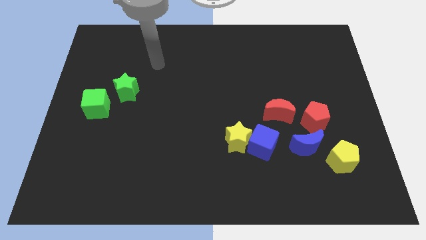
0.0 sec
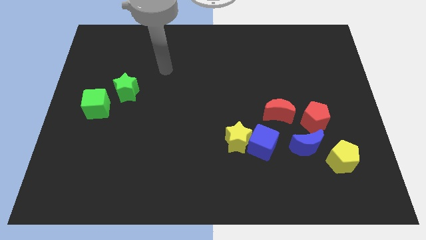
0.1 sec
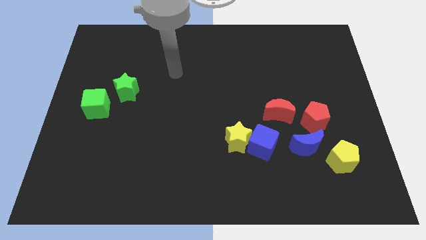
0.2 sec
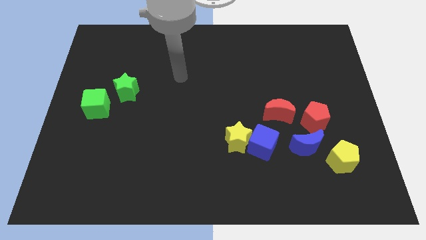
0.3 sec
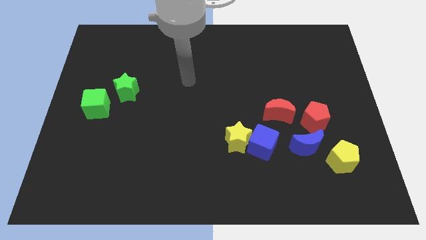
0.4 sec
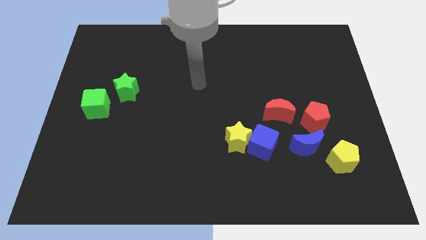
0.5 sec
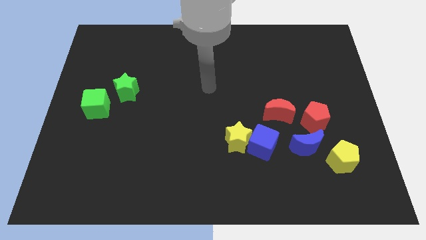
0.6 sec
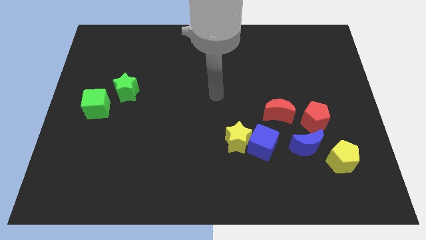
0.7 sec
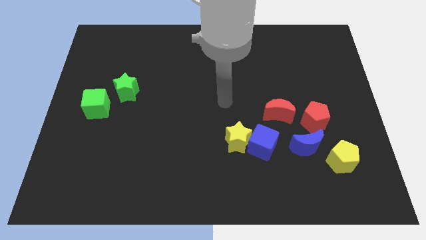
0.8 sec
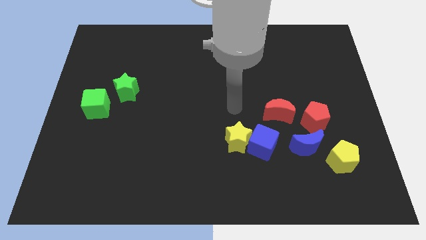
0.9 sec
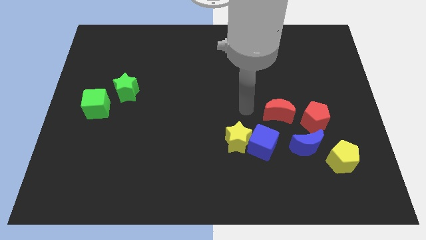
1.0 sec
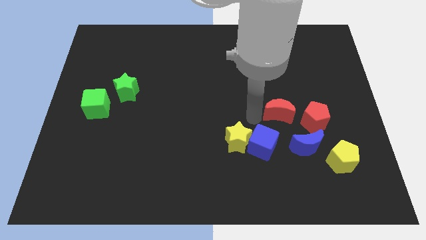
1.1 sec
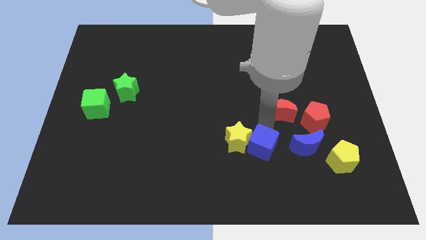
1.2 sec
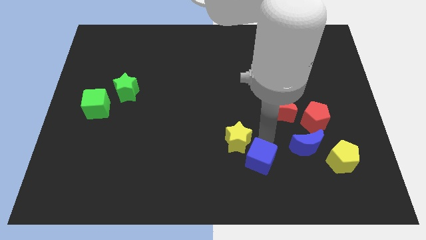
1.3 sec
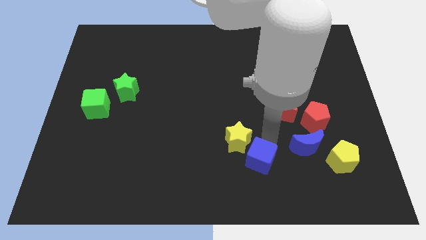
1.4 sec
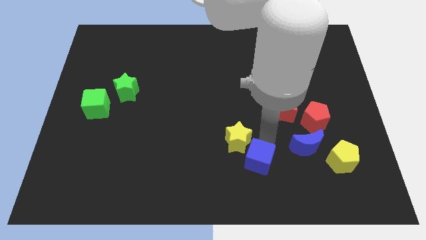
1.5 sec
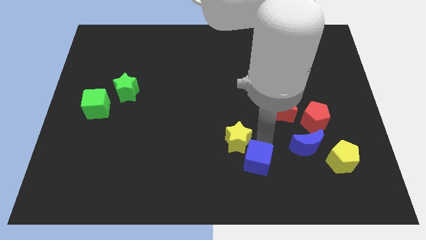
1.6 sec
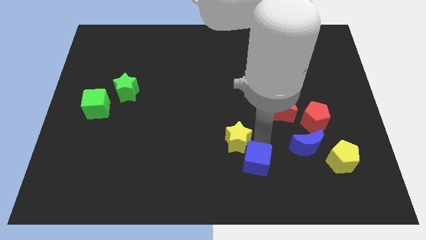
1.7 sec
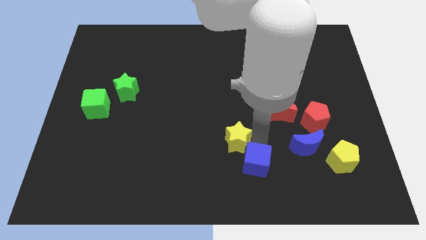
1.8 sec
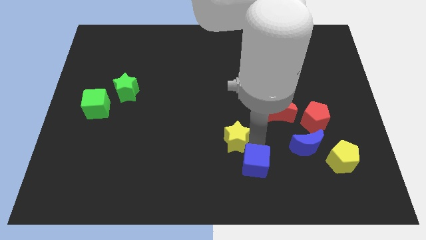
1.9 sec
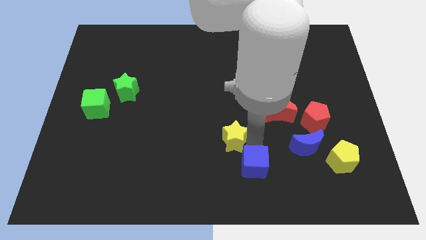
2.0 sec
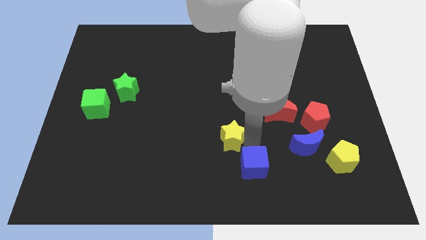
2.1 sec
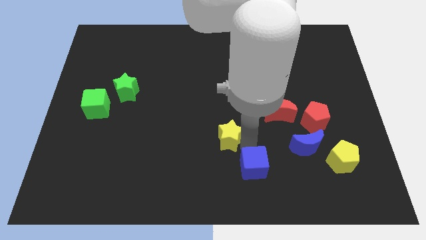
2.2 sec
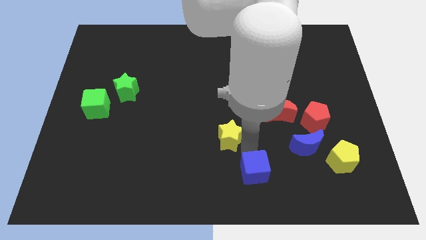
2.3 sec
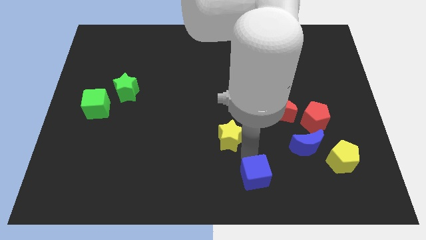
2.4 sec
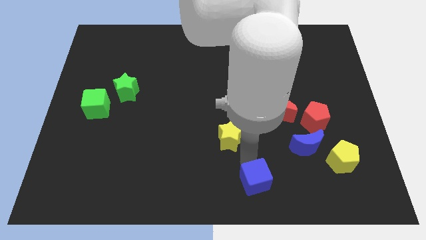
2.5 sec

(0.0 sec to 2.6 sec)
separate the yellow star from the blue cube

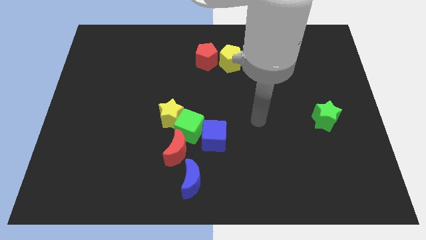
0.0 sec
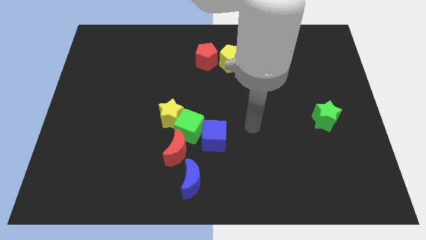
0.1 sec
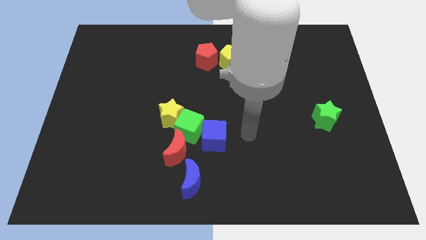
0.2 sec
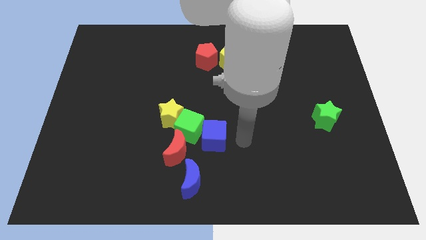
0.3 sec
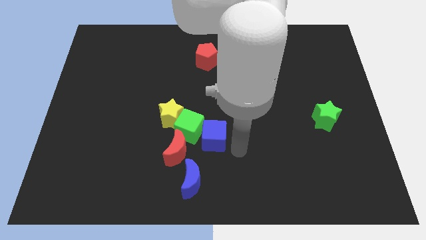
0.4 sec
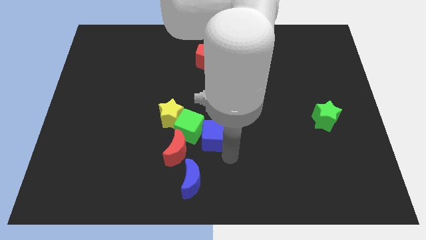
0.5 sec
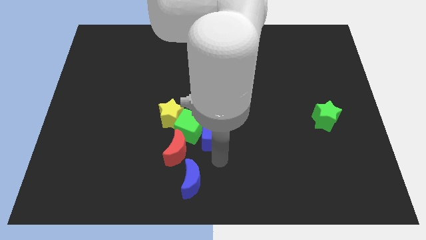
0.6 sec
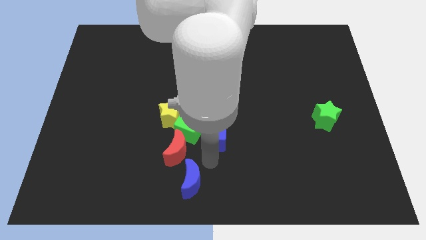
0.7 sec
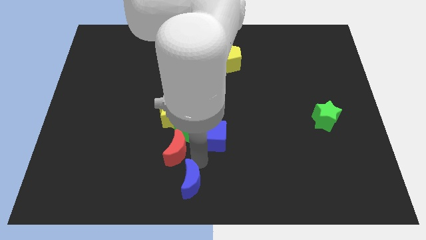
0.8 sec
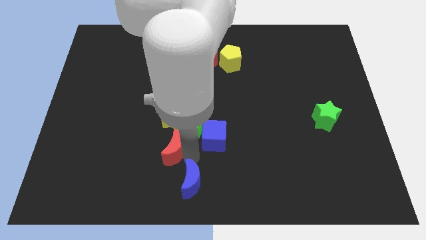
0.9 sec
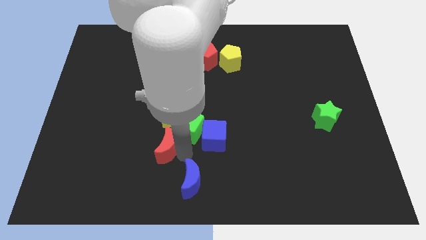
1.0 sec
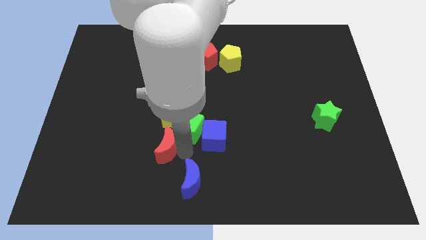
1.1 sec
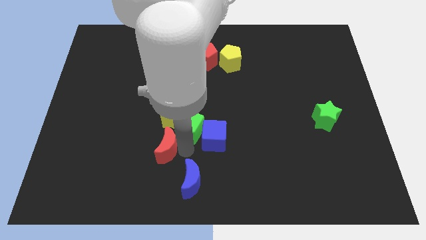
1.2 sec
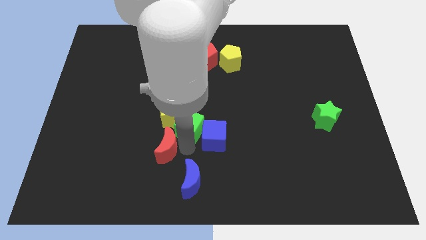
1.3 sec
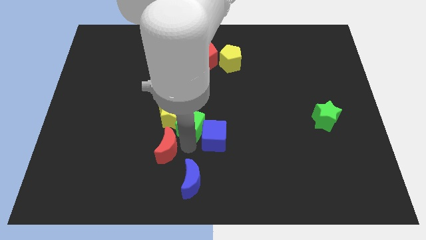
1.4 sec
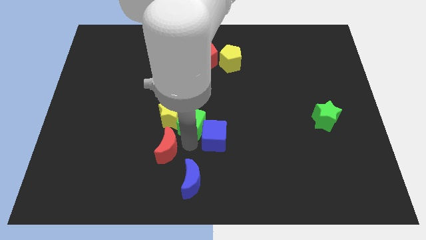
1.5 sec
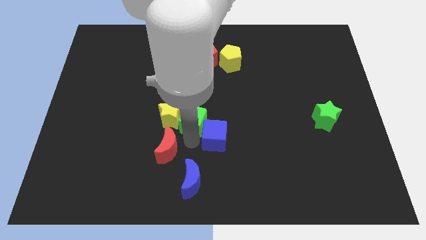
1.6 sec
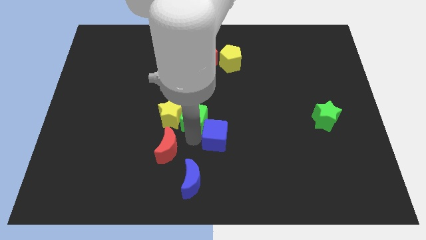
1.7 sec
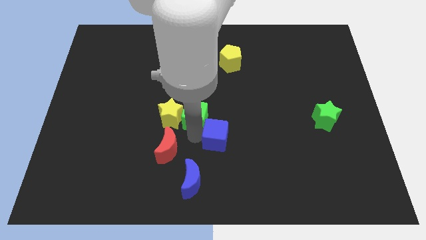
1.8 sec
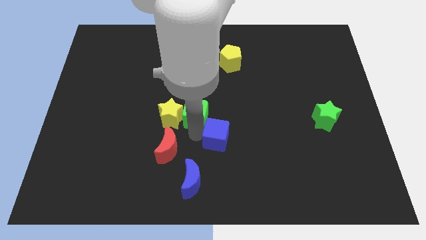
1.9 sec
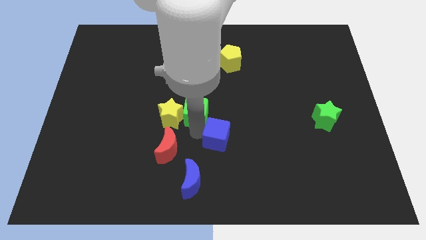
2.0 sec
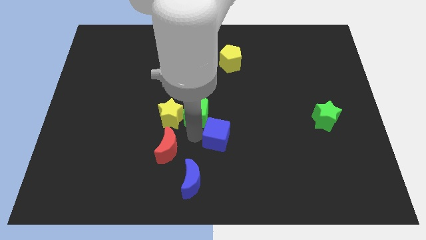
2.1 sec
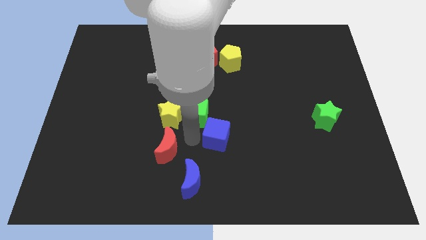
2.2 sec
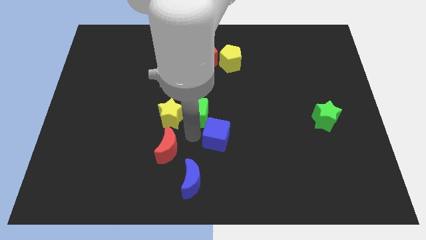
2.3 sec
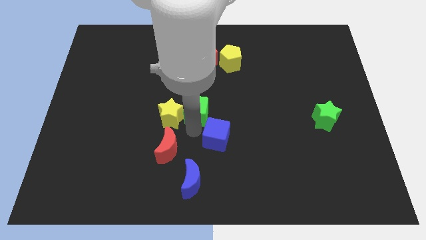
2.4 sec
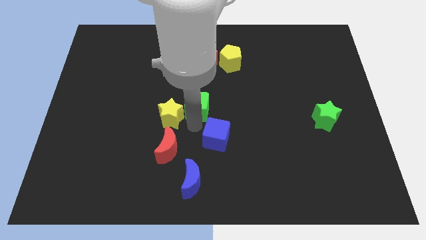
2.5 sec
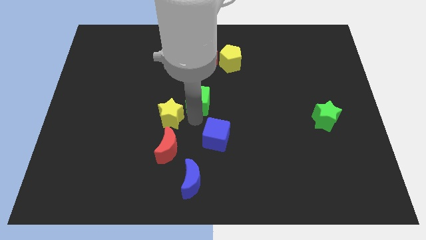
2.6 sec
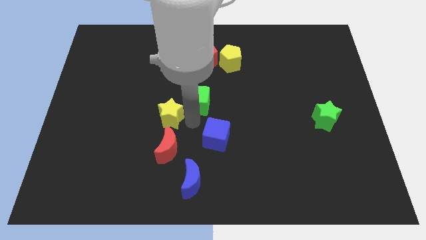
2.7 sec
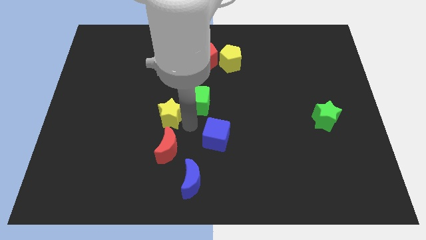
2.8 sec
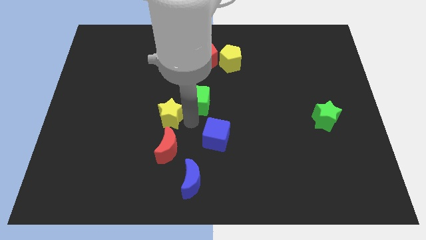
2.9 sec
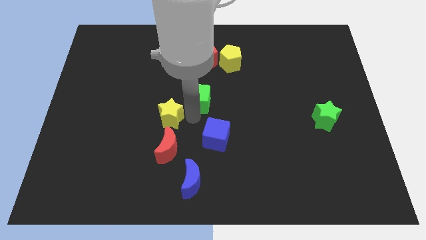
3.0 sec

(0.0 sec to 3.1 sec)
separate the green cube from the yellow star, blue cube, and red moon

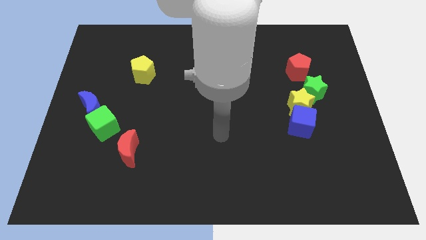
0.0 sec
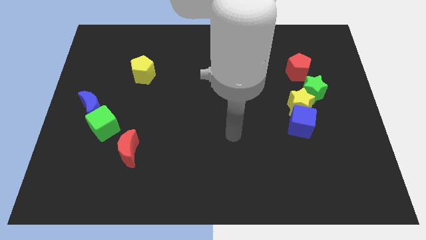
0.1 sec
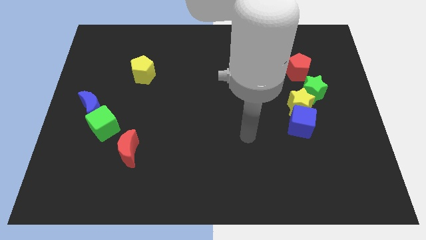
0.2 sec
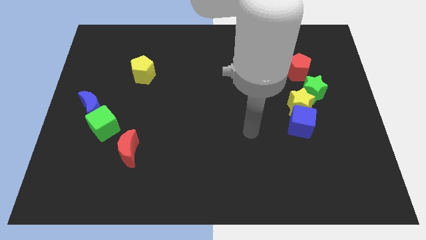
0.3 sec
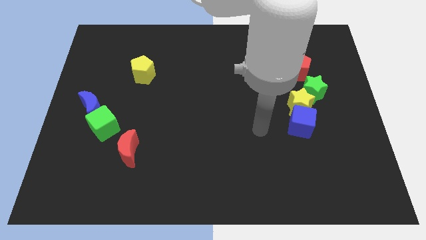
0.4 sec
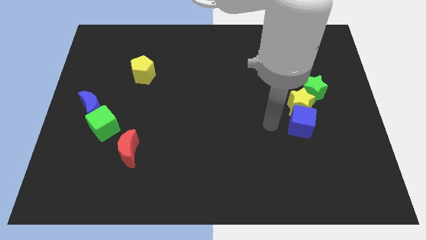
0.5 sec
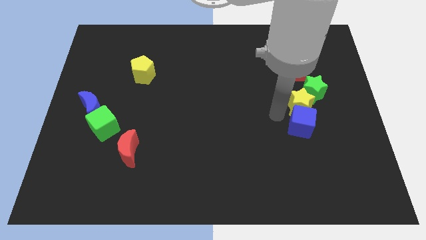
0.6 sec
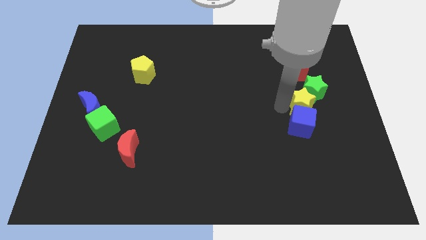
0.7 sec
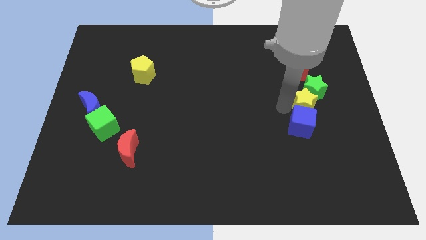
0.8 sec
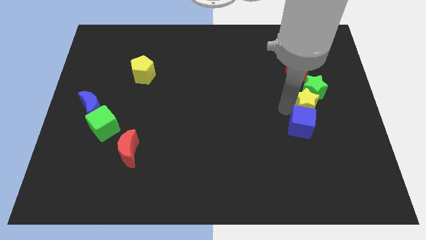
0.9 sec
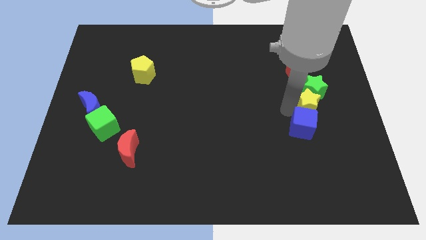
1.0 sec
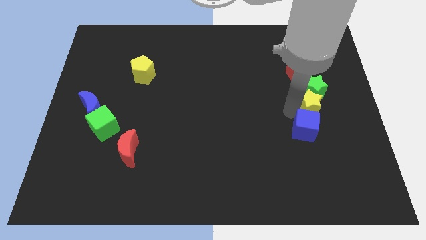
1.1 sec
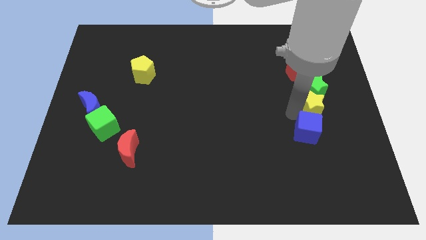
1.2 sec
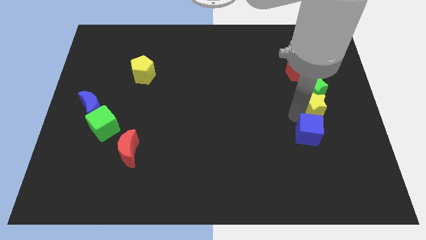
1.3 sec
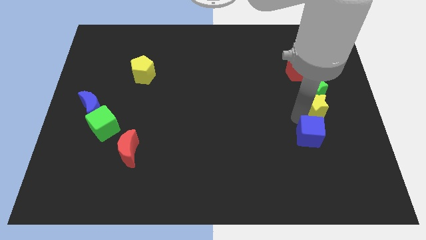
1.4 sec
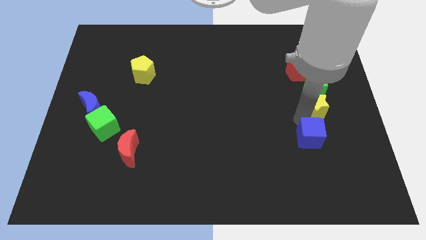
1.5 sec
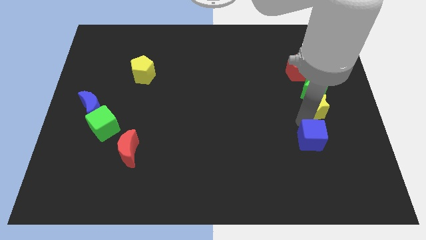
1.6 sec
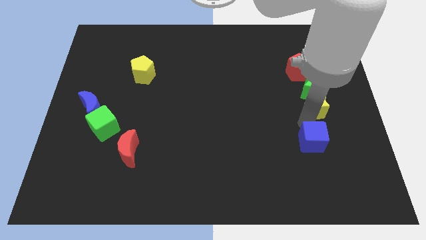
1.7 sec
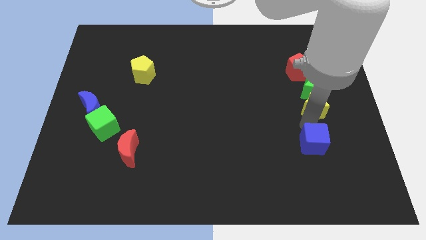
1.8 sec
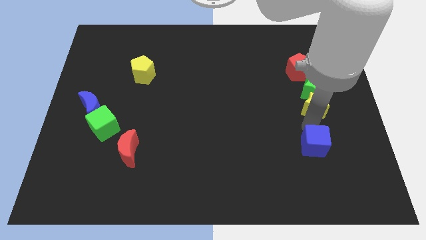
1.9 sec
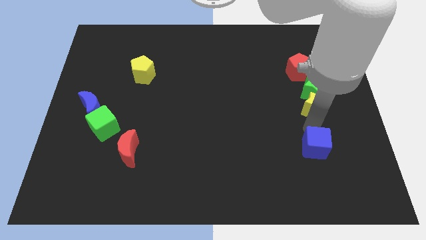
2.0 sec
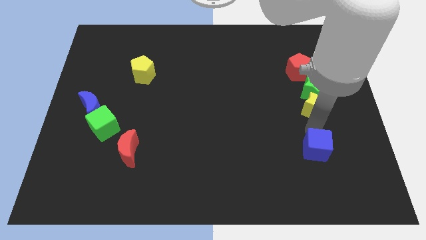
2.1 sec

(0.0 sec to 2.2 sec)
separate the blue cube from the yellow star

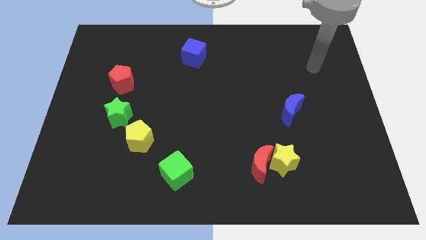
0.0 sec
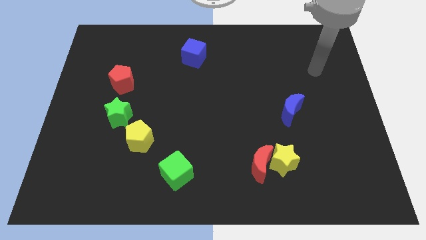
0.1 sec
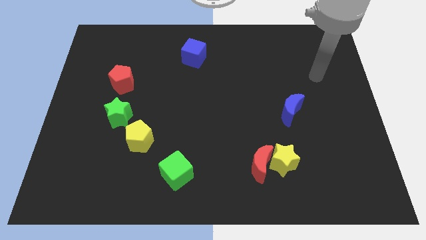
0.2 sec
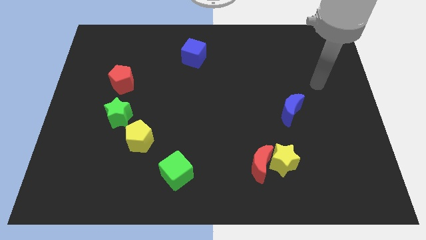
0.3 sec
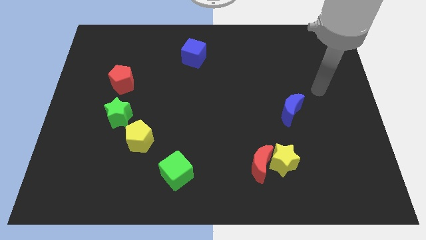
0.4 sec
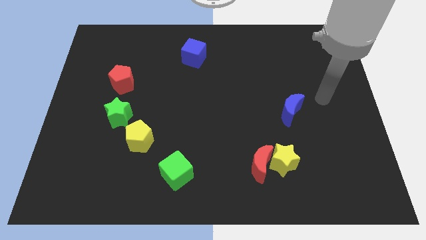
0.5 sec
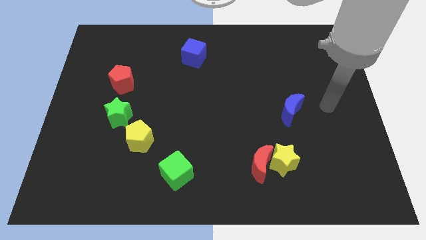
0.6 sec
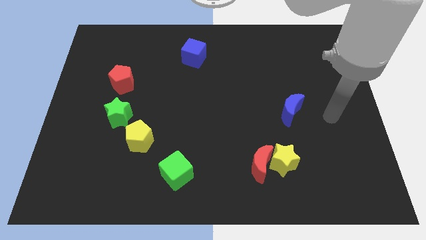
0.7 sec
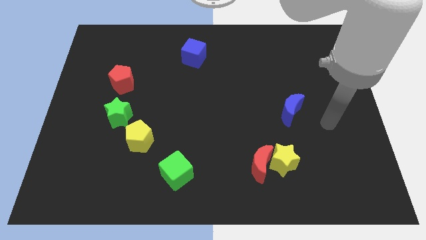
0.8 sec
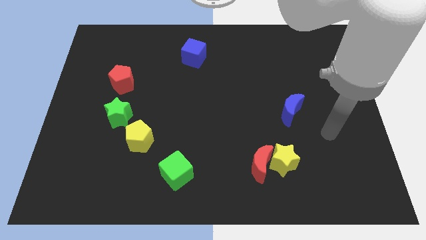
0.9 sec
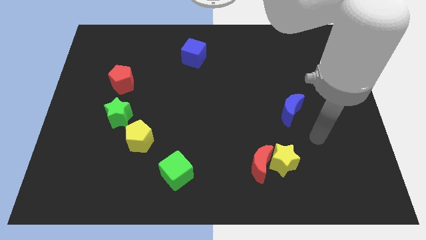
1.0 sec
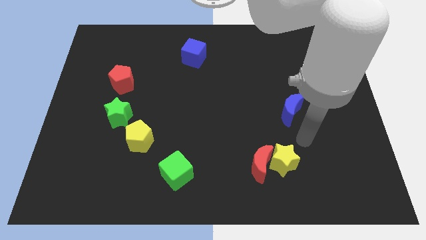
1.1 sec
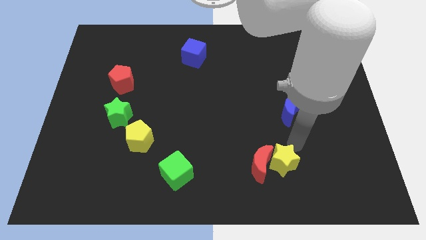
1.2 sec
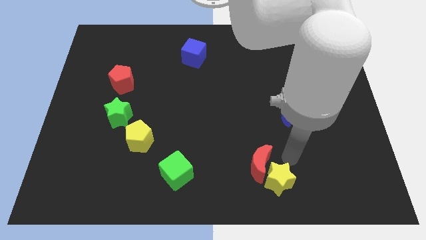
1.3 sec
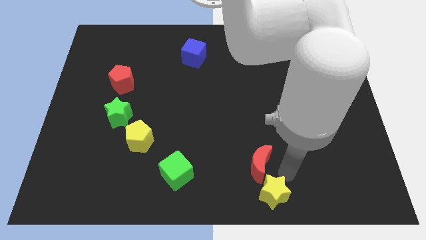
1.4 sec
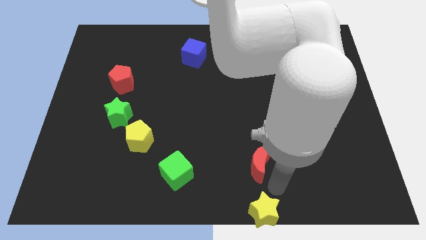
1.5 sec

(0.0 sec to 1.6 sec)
pull the red moon apart from the yellow star
